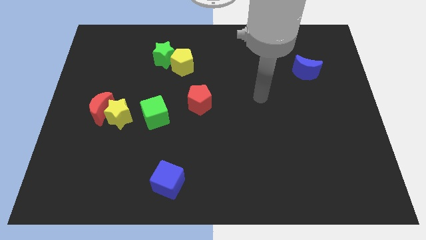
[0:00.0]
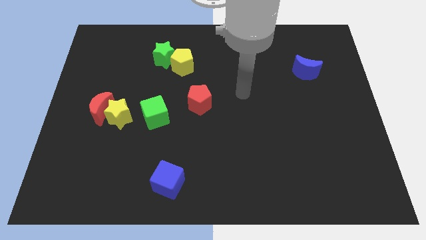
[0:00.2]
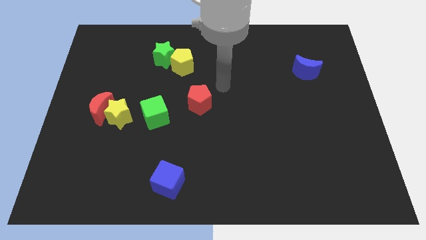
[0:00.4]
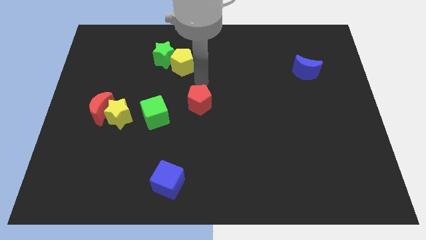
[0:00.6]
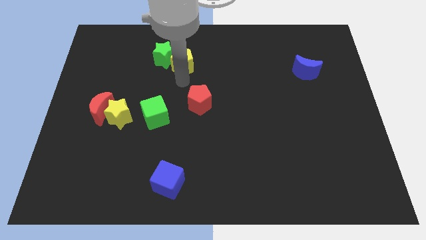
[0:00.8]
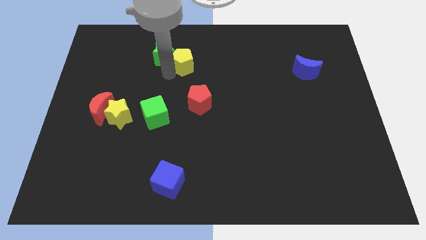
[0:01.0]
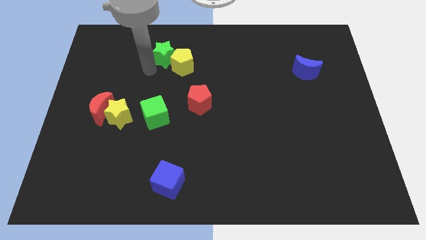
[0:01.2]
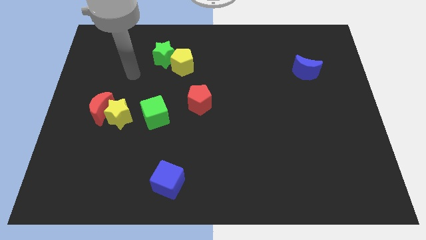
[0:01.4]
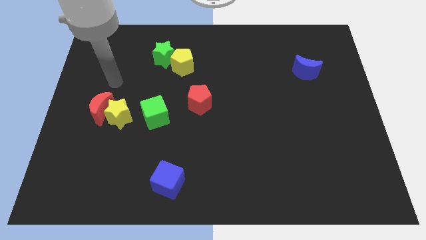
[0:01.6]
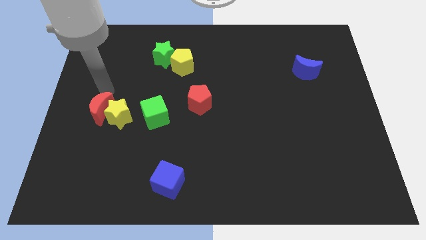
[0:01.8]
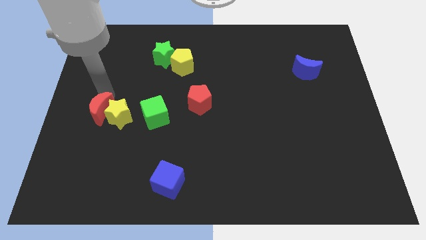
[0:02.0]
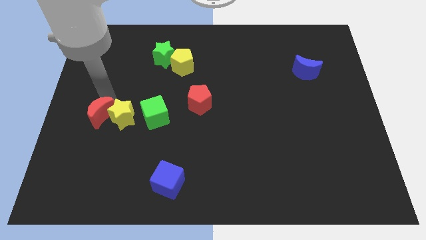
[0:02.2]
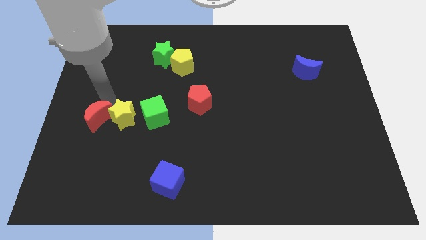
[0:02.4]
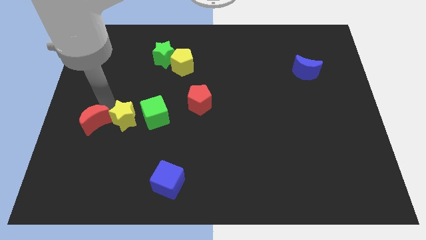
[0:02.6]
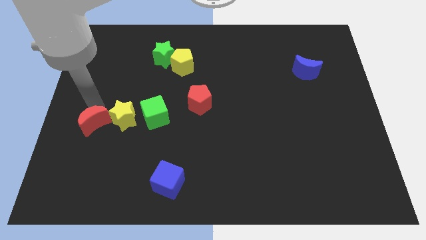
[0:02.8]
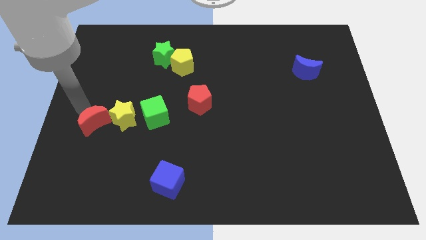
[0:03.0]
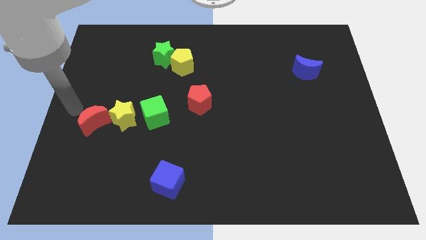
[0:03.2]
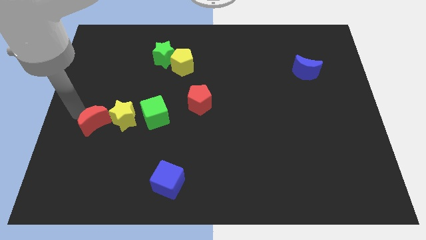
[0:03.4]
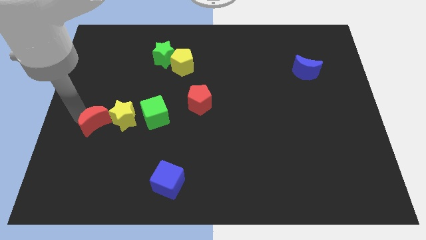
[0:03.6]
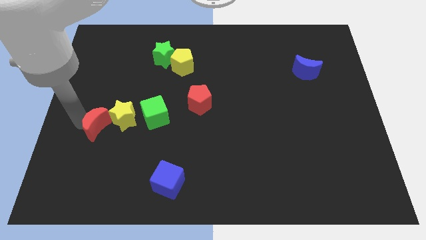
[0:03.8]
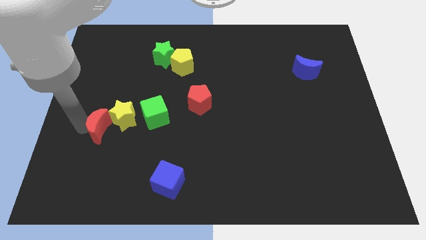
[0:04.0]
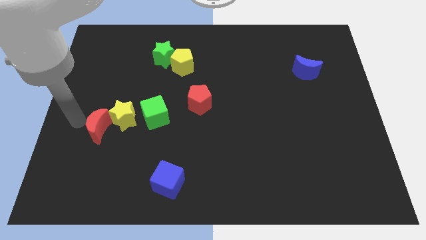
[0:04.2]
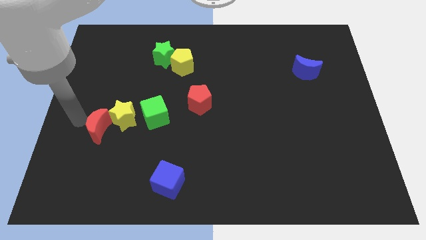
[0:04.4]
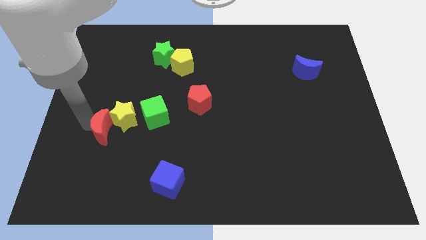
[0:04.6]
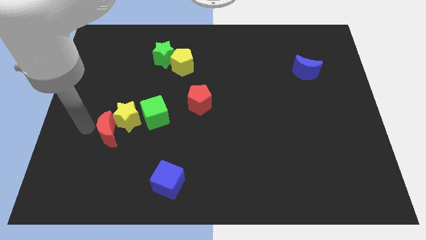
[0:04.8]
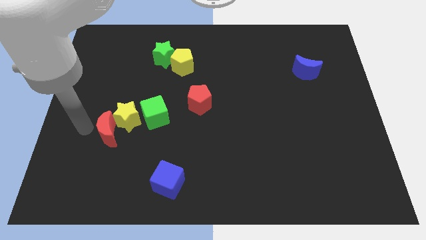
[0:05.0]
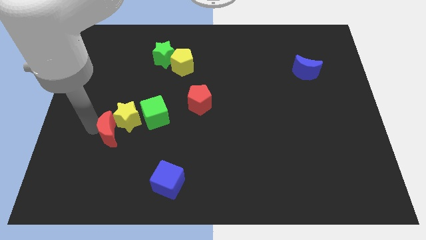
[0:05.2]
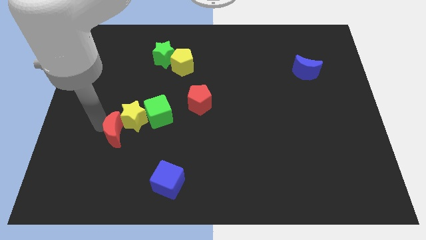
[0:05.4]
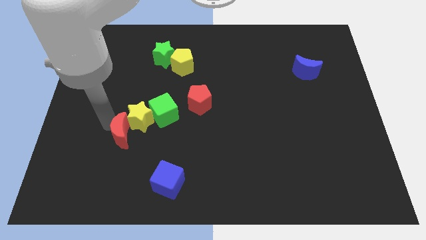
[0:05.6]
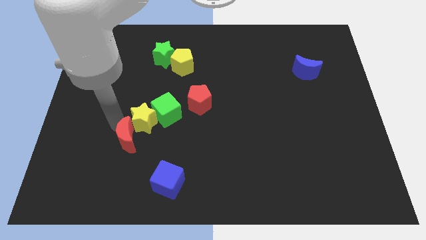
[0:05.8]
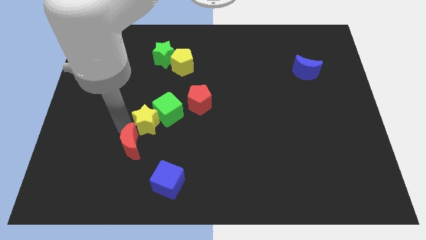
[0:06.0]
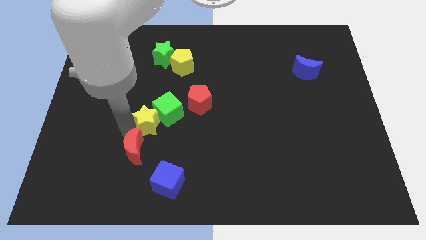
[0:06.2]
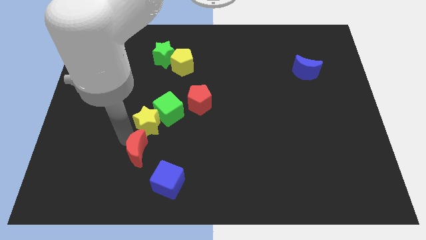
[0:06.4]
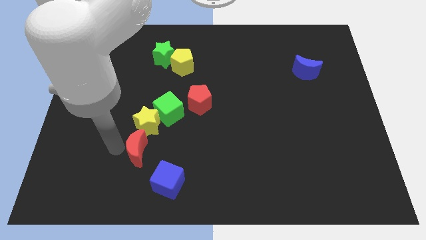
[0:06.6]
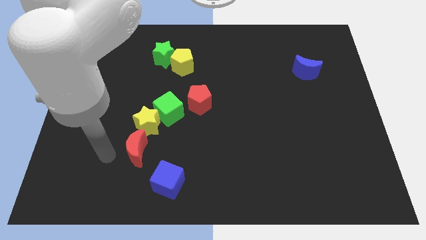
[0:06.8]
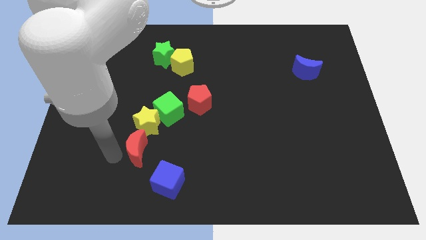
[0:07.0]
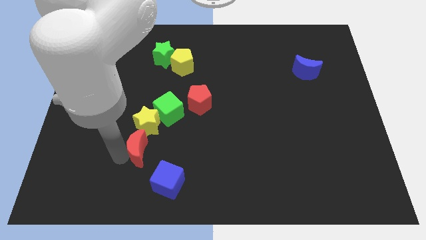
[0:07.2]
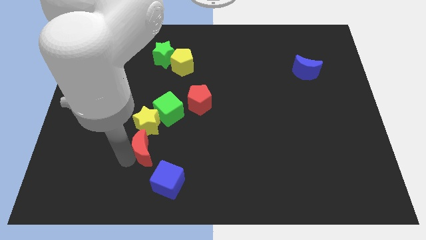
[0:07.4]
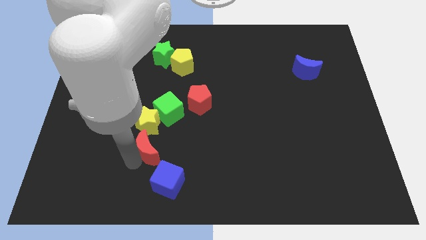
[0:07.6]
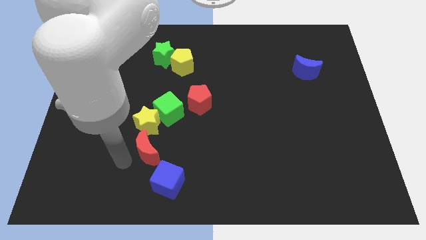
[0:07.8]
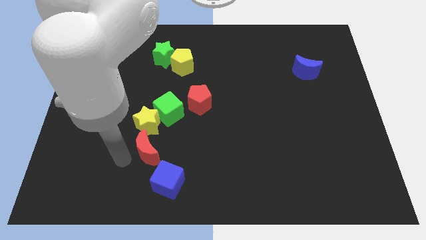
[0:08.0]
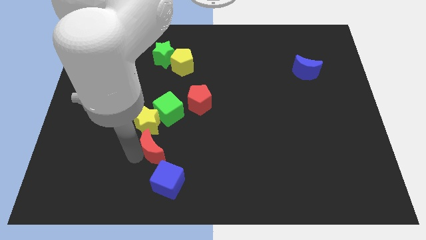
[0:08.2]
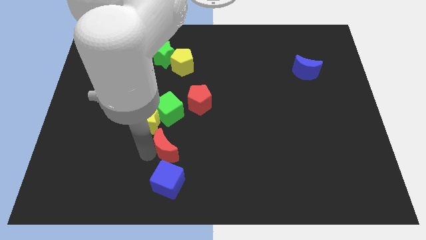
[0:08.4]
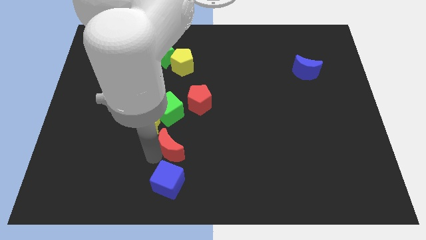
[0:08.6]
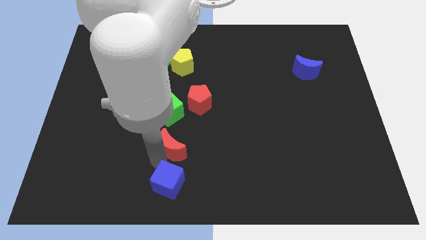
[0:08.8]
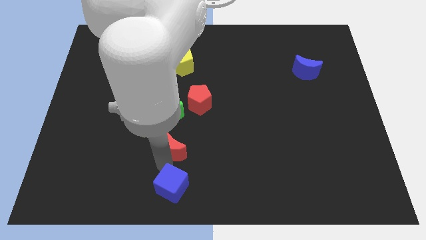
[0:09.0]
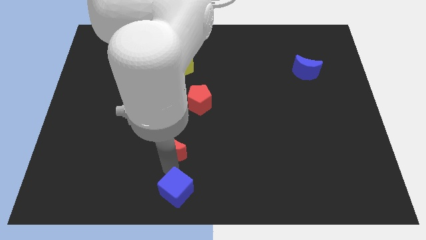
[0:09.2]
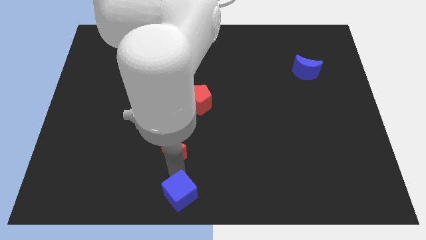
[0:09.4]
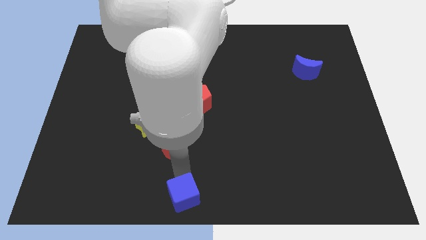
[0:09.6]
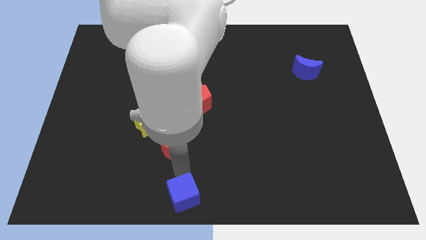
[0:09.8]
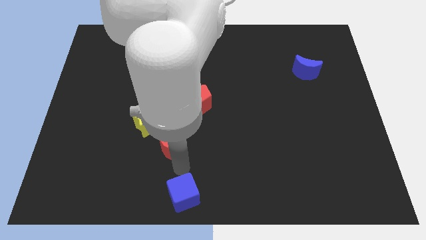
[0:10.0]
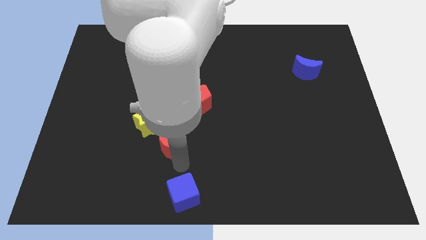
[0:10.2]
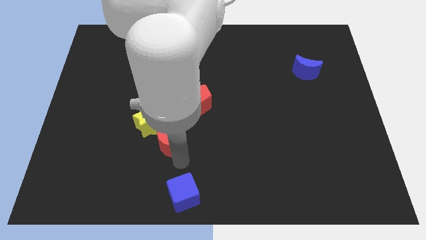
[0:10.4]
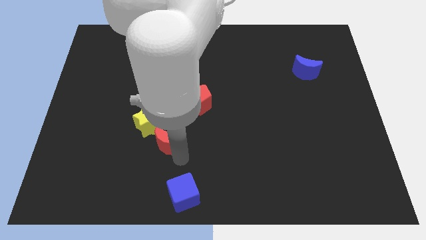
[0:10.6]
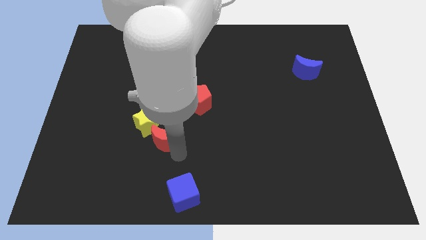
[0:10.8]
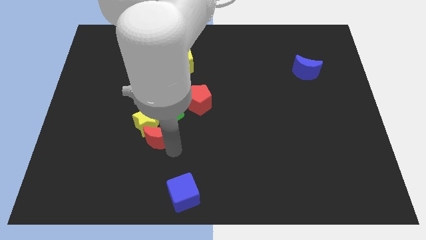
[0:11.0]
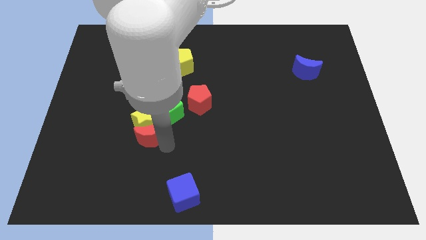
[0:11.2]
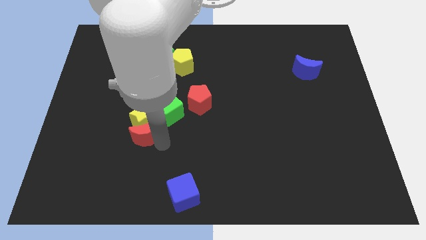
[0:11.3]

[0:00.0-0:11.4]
push the red moon to the bottom right of the yellow star

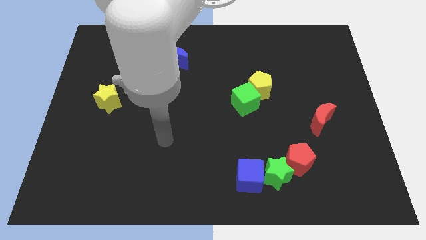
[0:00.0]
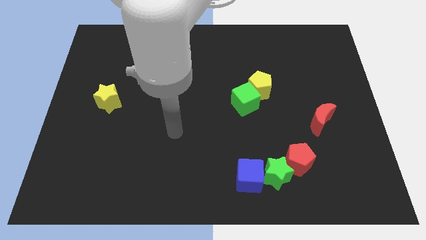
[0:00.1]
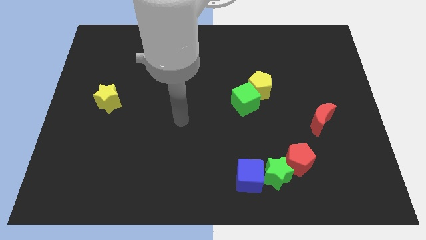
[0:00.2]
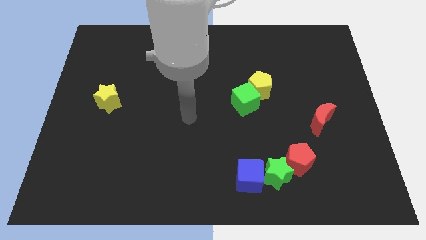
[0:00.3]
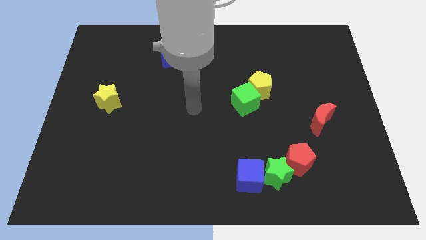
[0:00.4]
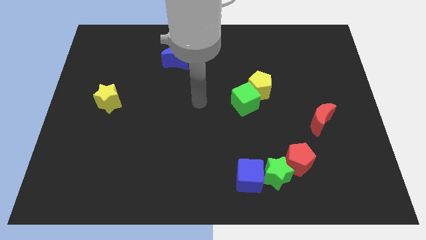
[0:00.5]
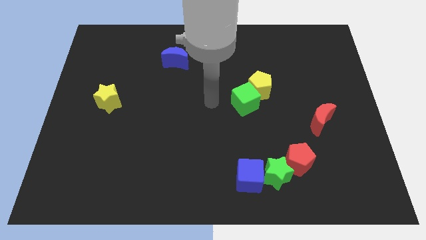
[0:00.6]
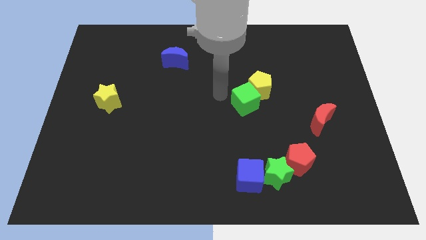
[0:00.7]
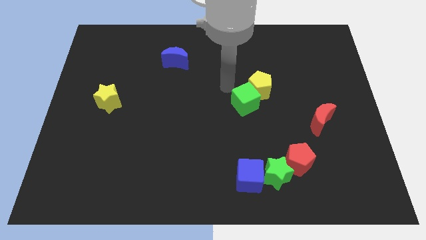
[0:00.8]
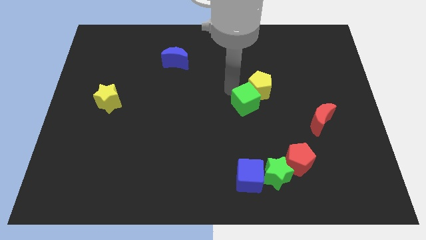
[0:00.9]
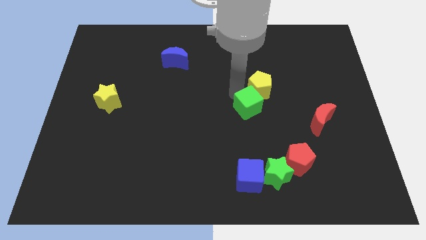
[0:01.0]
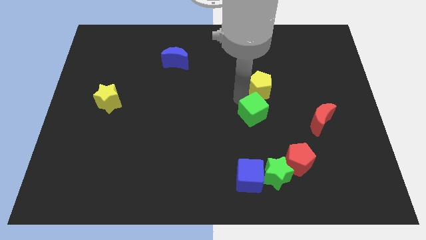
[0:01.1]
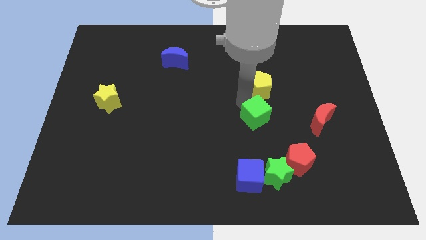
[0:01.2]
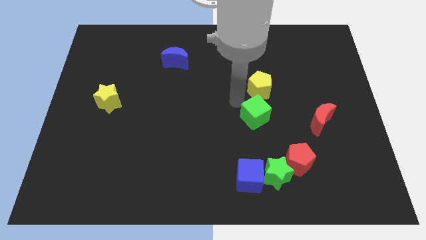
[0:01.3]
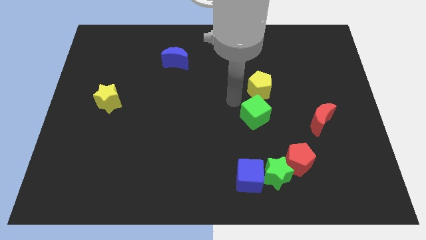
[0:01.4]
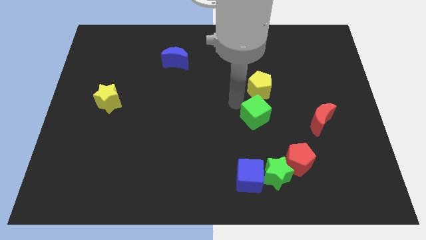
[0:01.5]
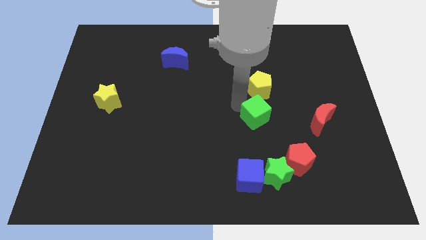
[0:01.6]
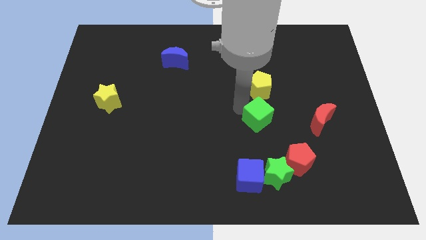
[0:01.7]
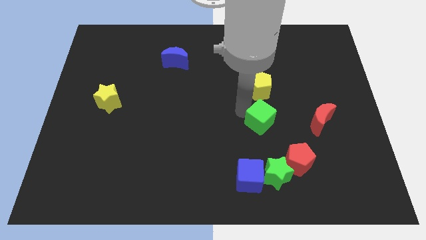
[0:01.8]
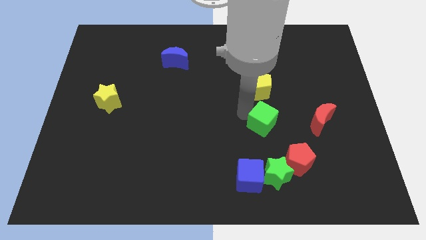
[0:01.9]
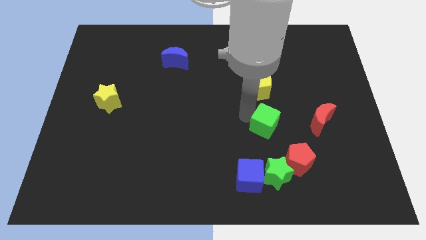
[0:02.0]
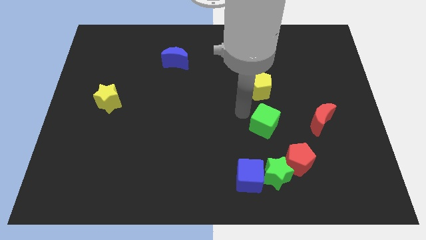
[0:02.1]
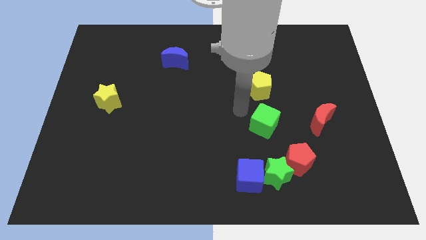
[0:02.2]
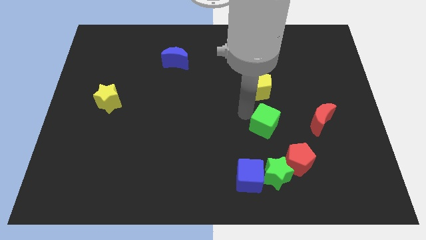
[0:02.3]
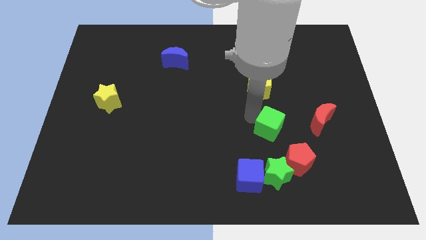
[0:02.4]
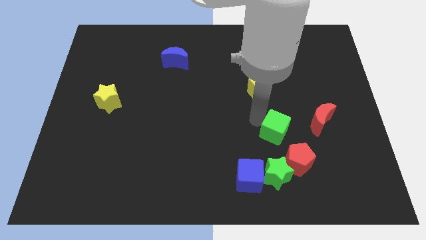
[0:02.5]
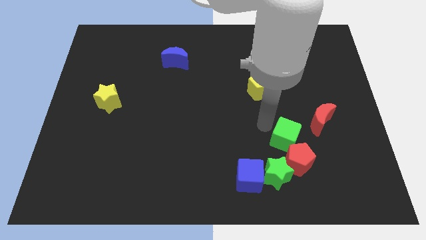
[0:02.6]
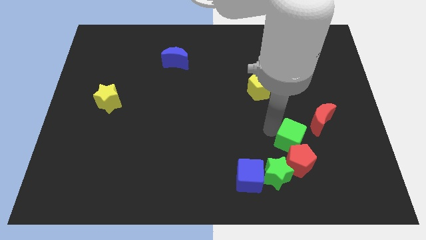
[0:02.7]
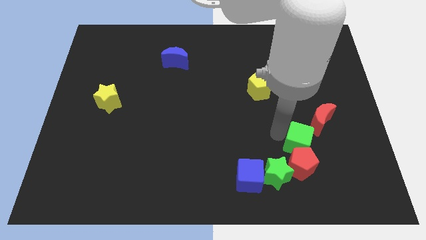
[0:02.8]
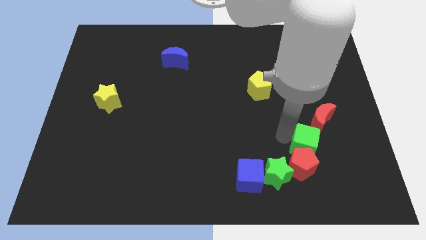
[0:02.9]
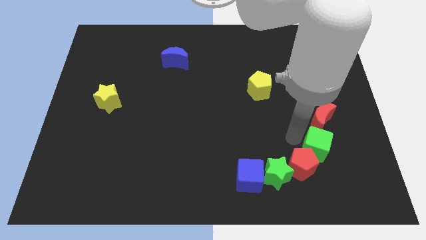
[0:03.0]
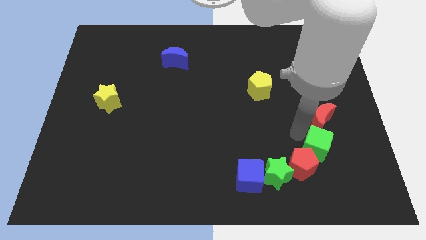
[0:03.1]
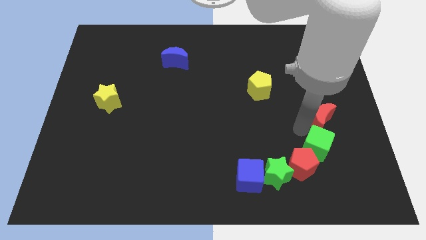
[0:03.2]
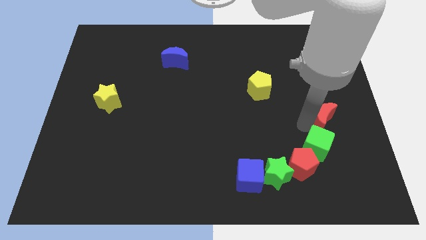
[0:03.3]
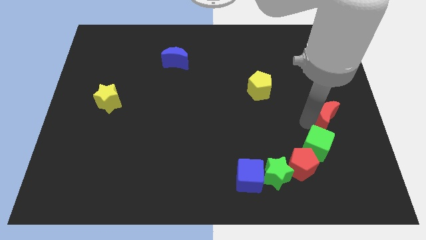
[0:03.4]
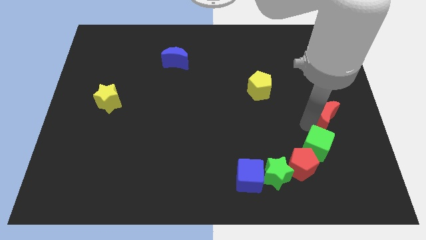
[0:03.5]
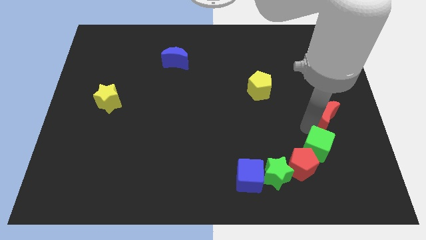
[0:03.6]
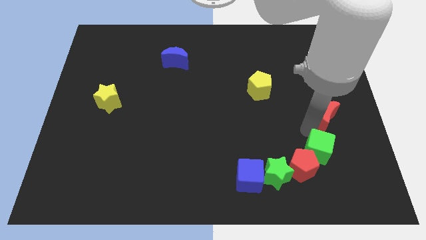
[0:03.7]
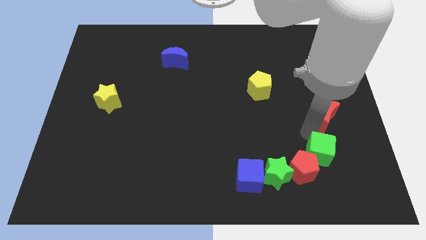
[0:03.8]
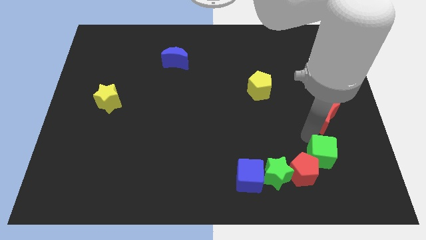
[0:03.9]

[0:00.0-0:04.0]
move the green cube just right of the green star
